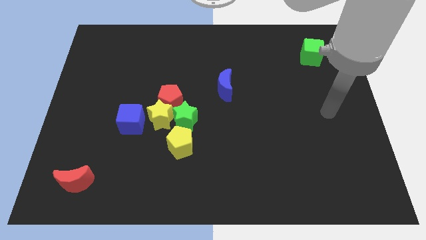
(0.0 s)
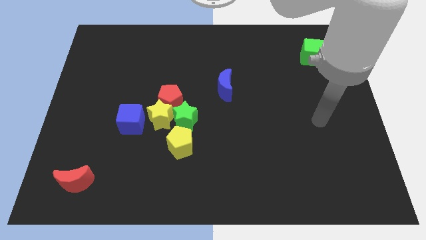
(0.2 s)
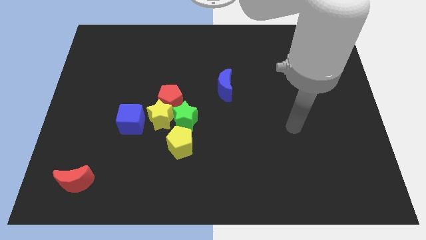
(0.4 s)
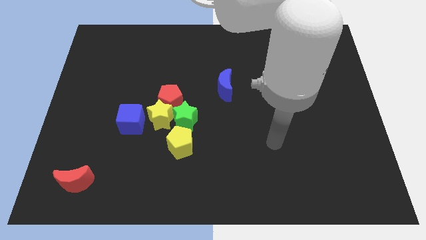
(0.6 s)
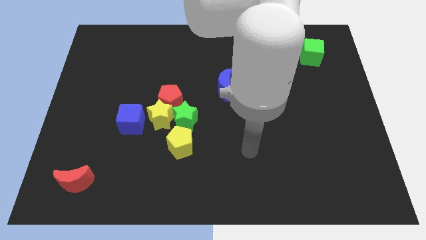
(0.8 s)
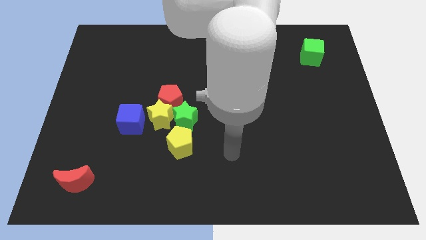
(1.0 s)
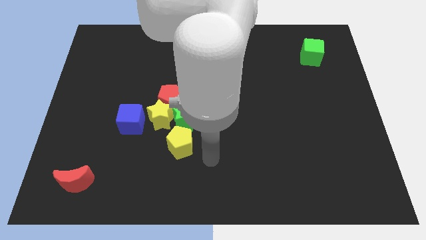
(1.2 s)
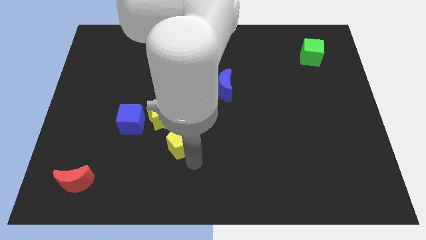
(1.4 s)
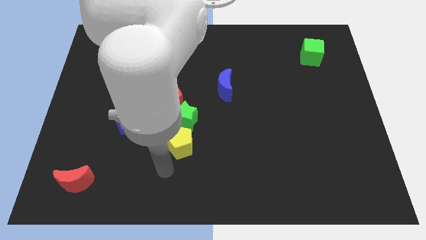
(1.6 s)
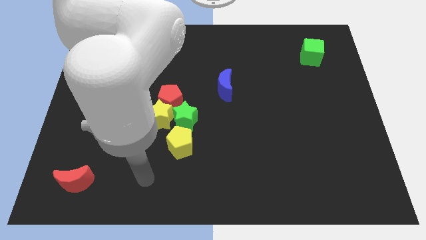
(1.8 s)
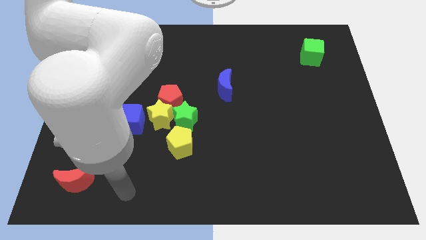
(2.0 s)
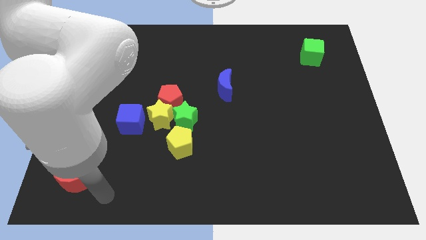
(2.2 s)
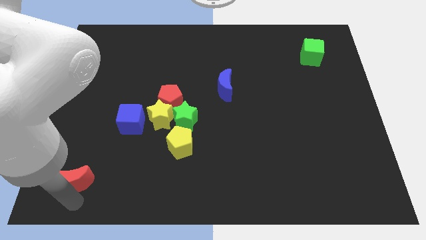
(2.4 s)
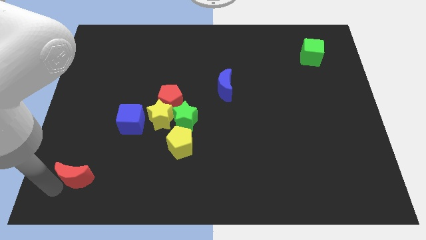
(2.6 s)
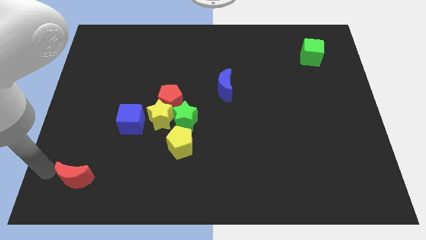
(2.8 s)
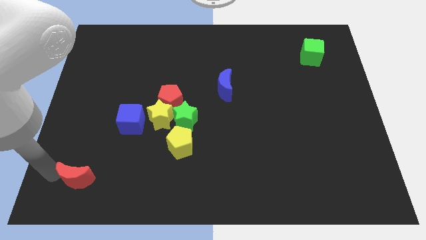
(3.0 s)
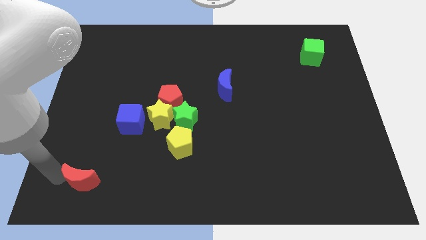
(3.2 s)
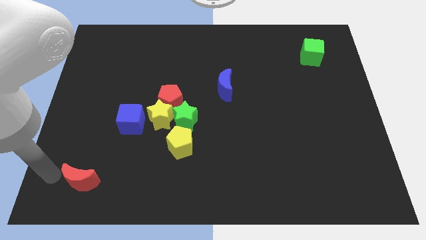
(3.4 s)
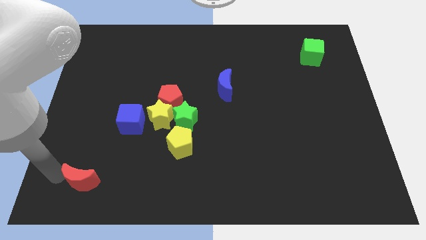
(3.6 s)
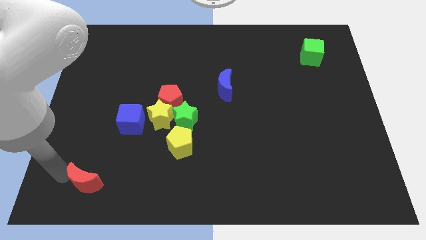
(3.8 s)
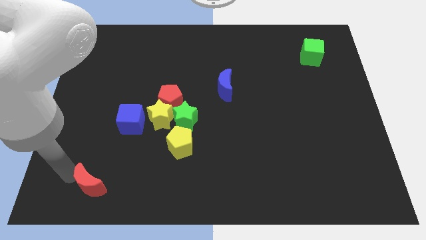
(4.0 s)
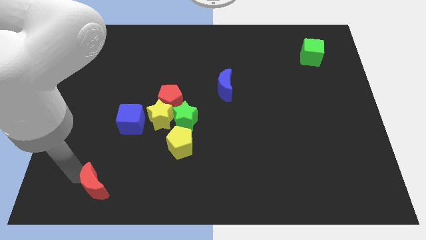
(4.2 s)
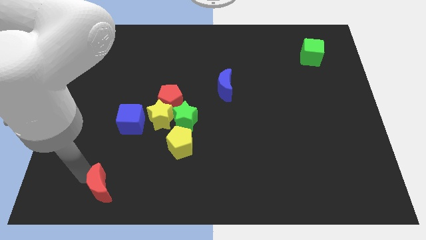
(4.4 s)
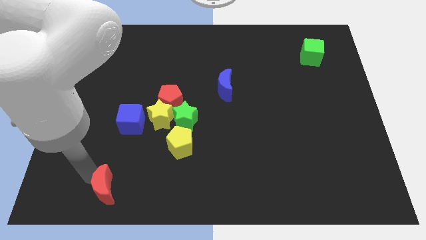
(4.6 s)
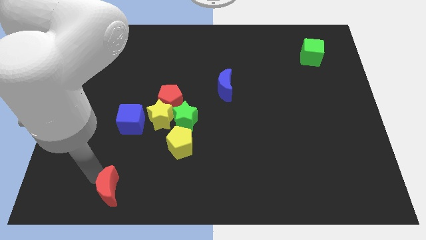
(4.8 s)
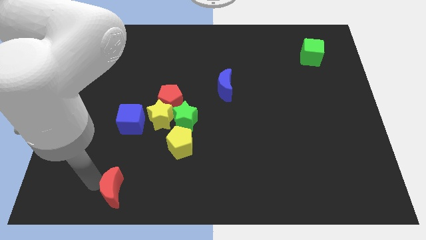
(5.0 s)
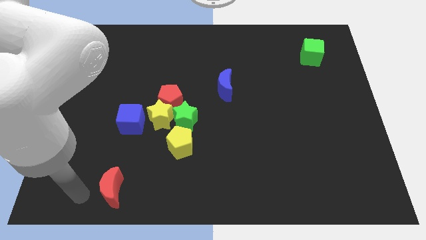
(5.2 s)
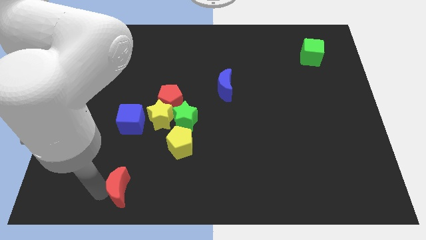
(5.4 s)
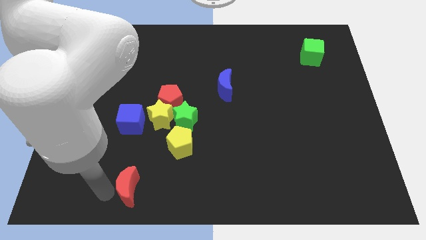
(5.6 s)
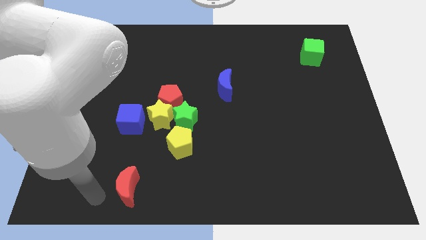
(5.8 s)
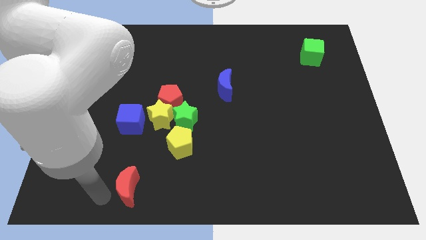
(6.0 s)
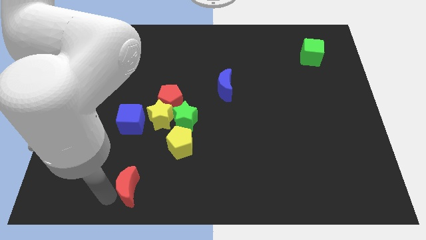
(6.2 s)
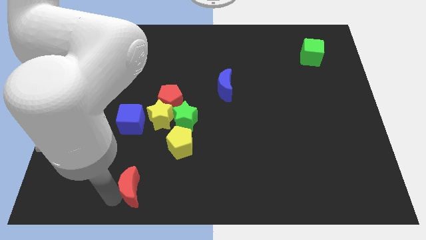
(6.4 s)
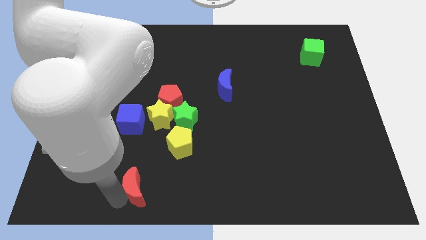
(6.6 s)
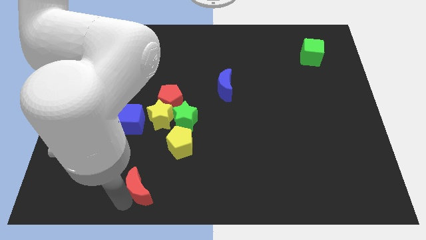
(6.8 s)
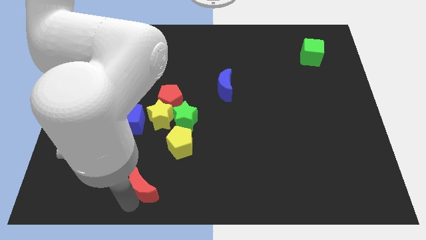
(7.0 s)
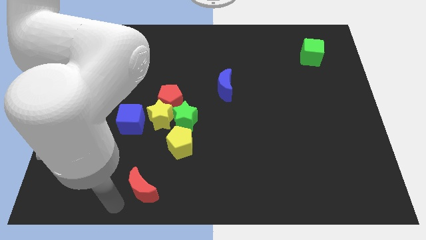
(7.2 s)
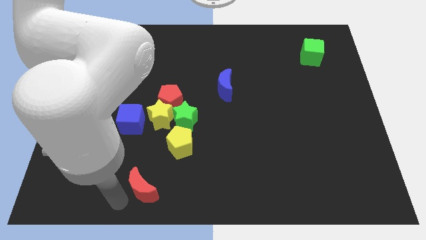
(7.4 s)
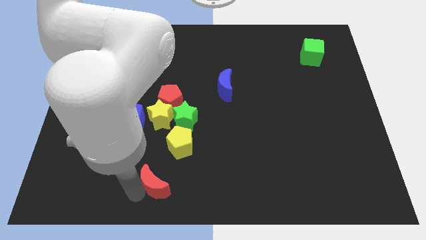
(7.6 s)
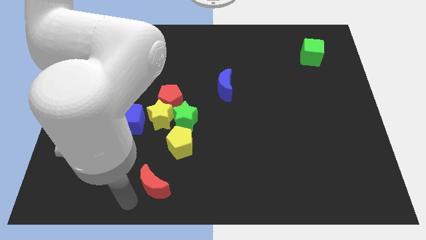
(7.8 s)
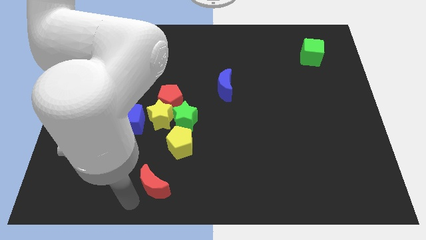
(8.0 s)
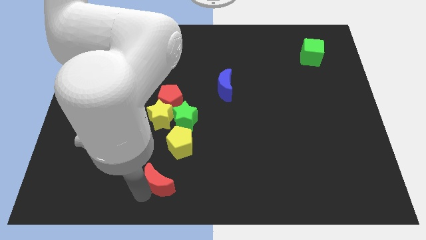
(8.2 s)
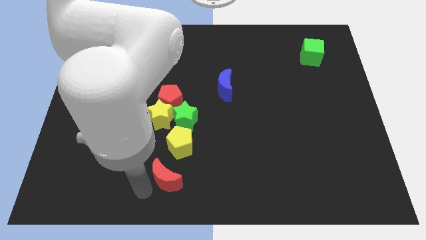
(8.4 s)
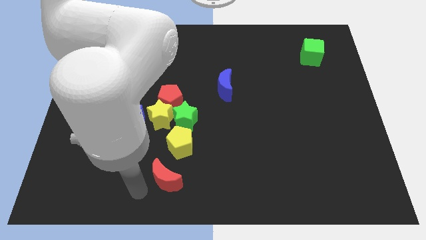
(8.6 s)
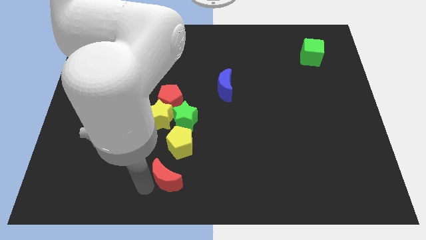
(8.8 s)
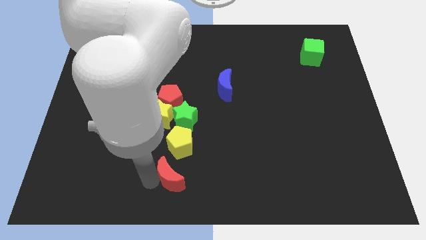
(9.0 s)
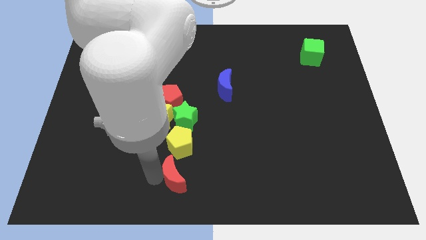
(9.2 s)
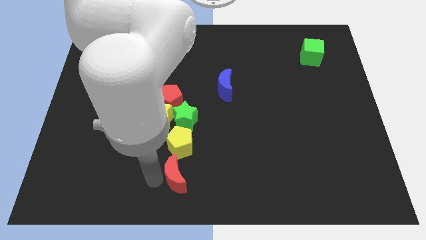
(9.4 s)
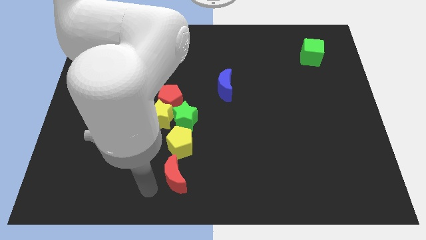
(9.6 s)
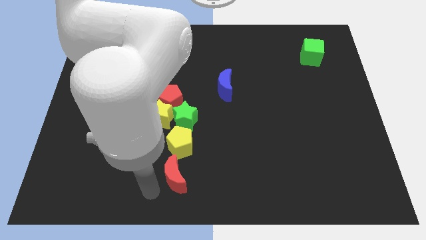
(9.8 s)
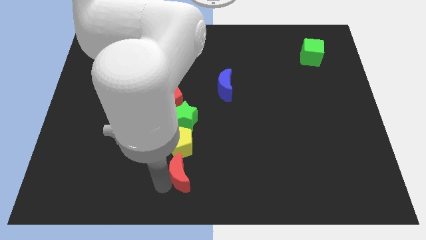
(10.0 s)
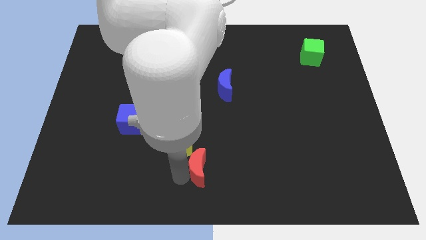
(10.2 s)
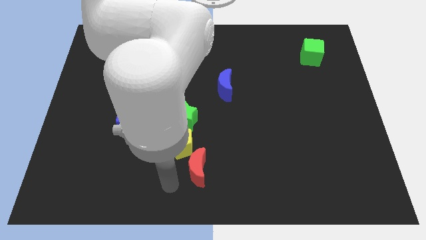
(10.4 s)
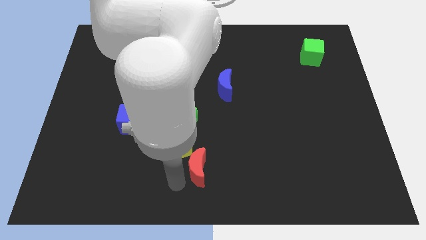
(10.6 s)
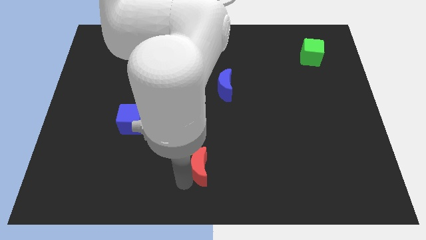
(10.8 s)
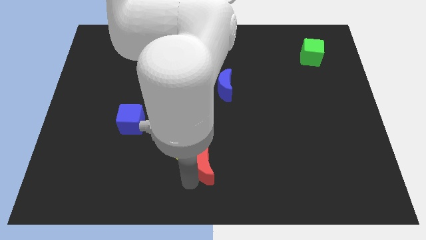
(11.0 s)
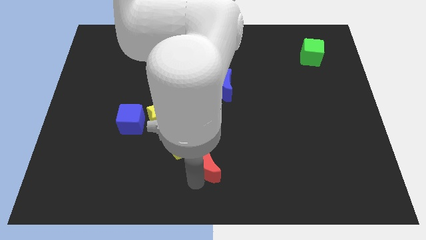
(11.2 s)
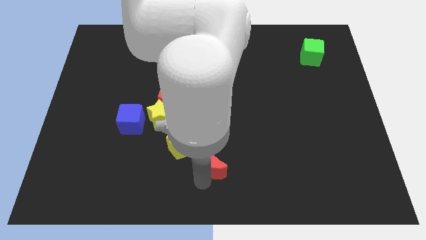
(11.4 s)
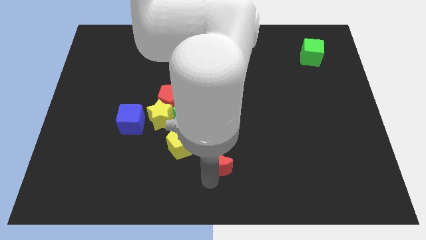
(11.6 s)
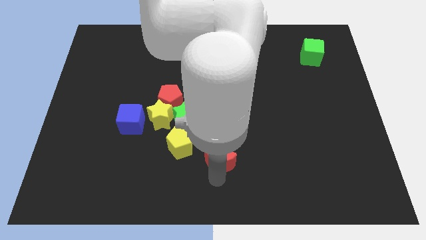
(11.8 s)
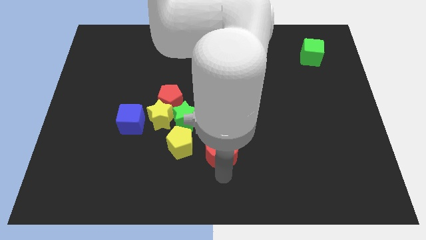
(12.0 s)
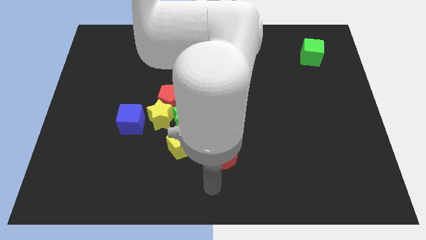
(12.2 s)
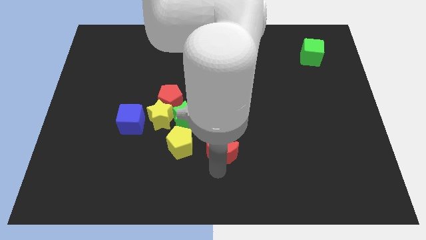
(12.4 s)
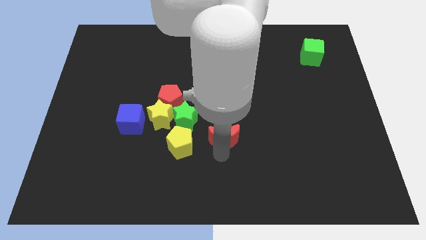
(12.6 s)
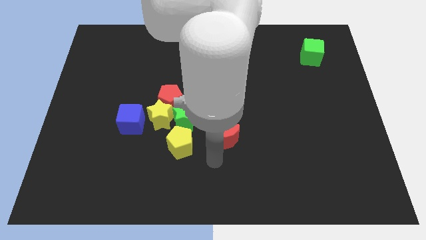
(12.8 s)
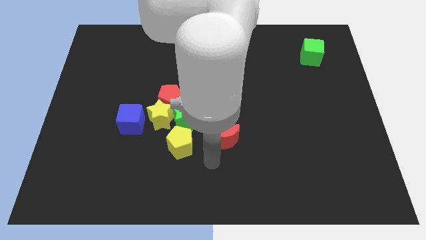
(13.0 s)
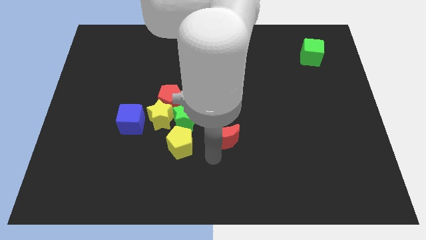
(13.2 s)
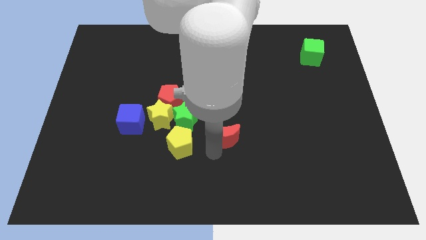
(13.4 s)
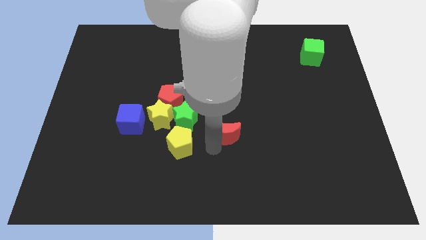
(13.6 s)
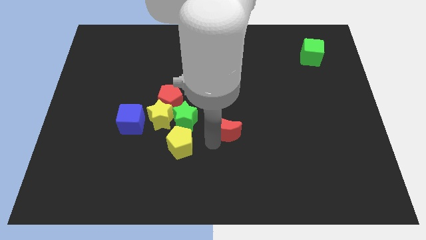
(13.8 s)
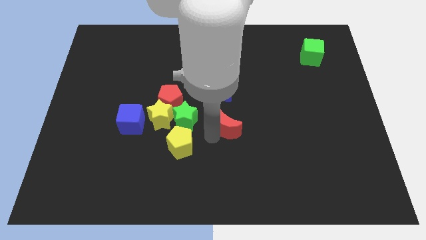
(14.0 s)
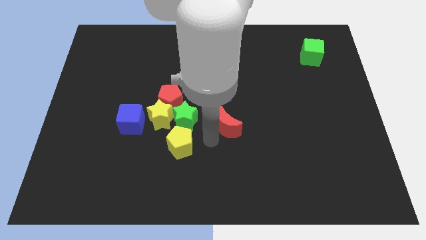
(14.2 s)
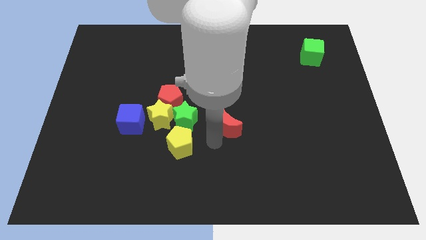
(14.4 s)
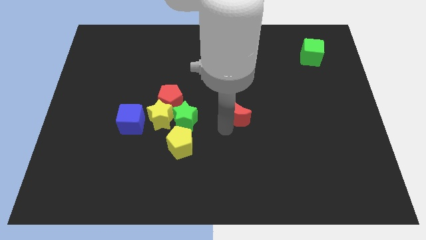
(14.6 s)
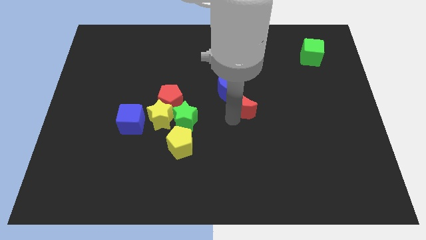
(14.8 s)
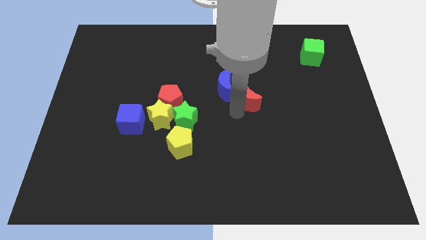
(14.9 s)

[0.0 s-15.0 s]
move the red moon to the right side of the blue moon
